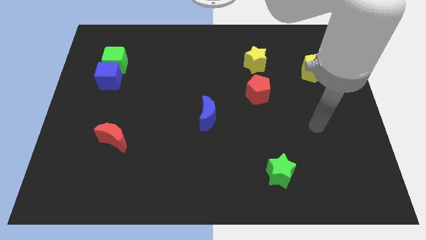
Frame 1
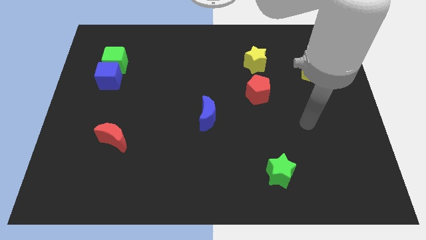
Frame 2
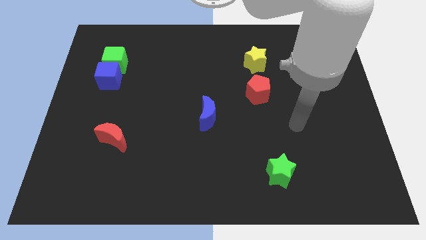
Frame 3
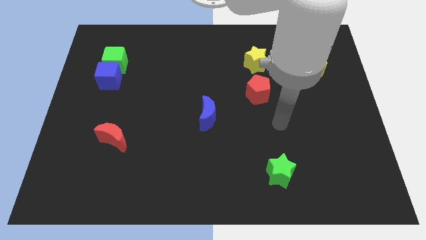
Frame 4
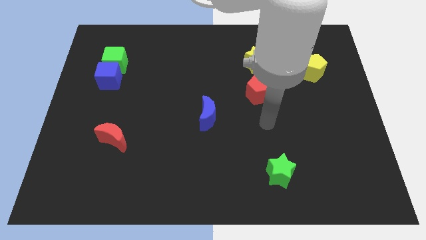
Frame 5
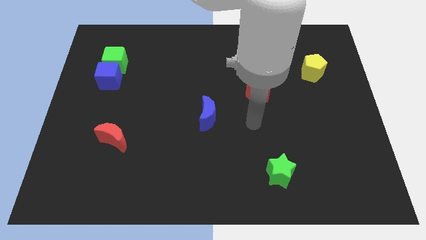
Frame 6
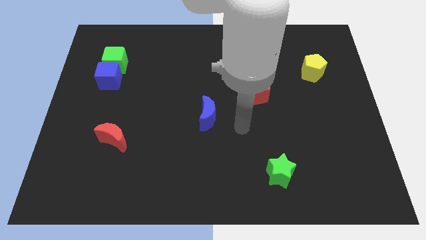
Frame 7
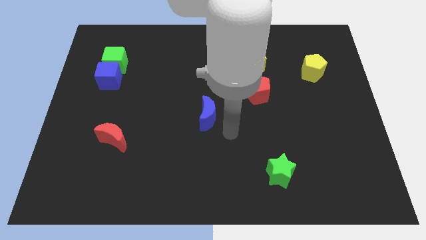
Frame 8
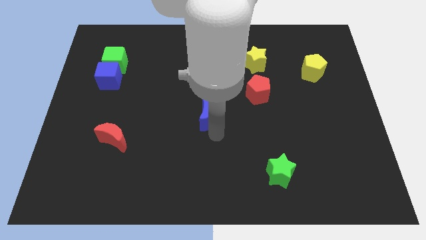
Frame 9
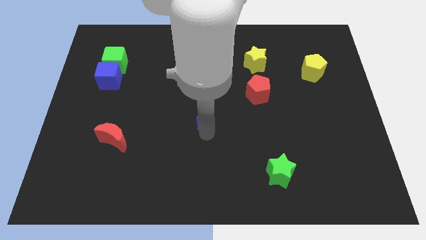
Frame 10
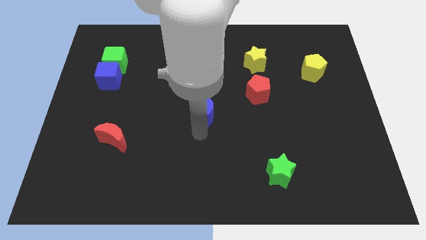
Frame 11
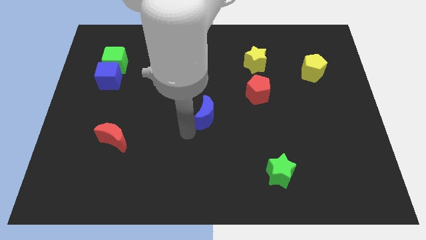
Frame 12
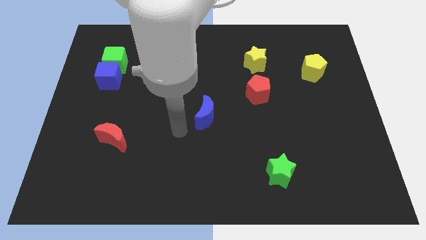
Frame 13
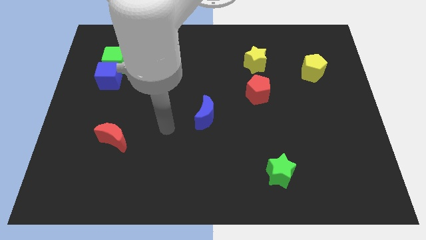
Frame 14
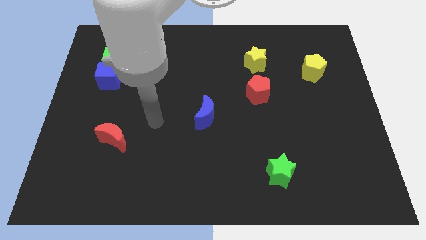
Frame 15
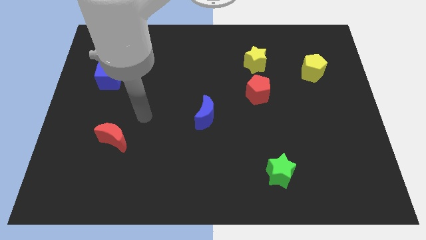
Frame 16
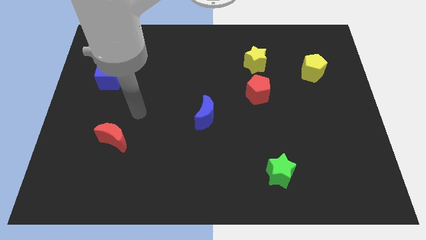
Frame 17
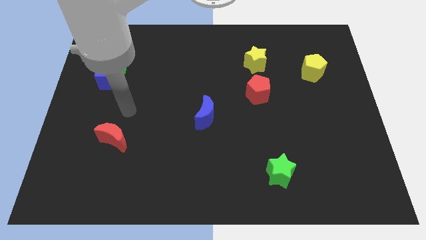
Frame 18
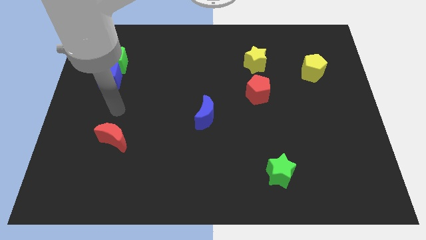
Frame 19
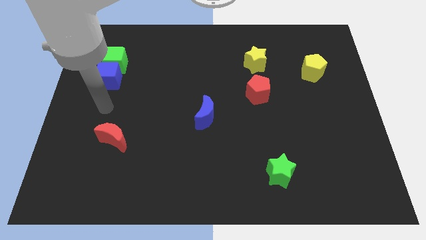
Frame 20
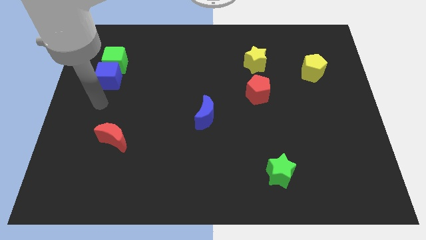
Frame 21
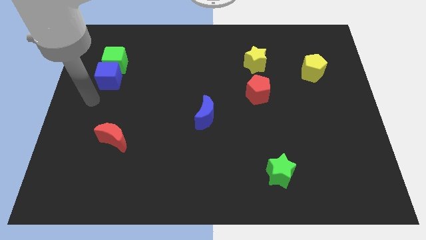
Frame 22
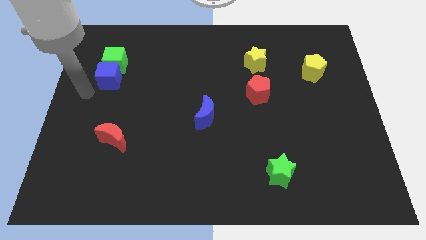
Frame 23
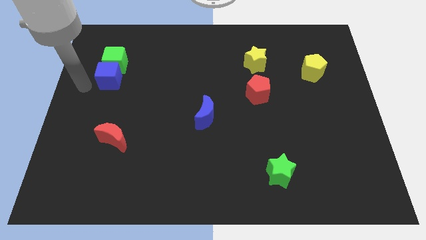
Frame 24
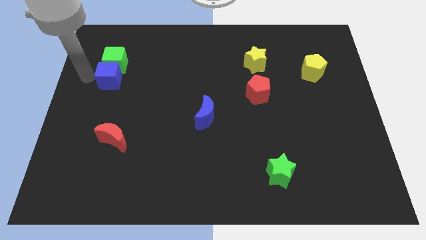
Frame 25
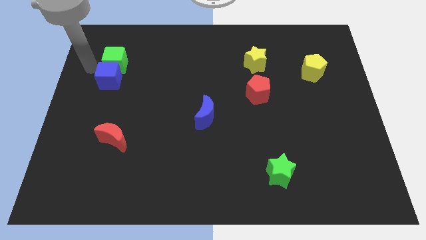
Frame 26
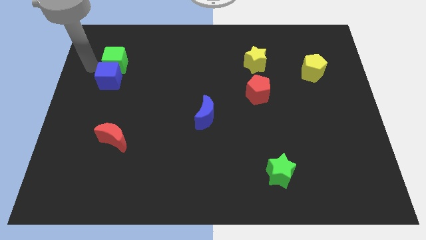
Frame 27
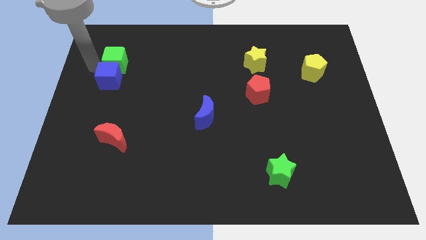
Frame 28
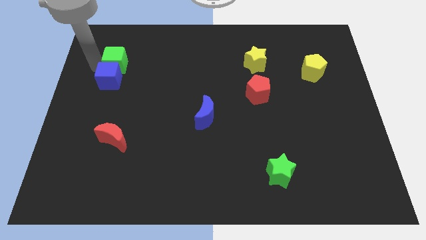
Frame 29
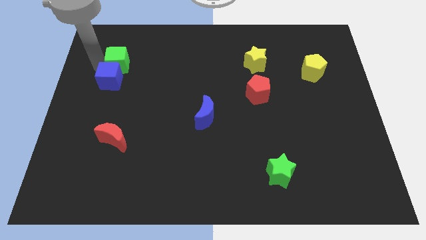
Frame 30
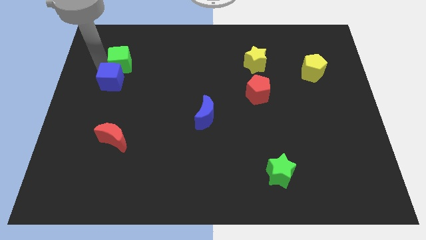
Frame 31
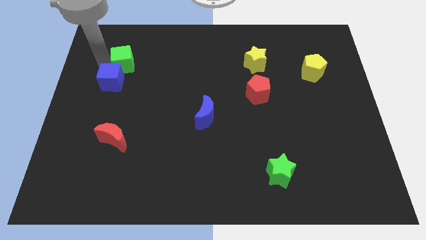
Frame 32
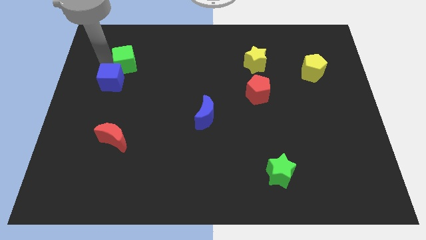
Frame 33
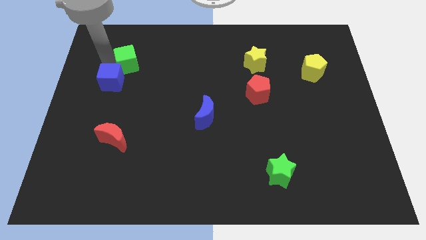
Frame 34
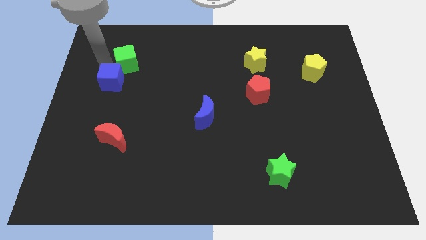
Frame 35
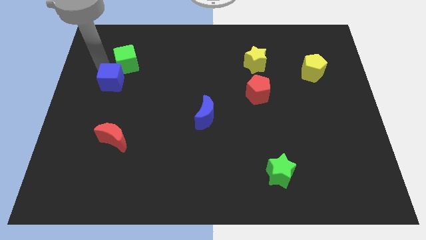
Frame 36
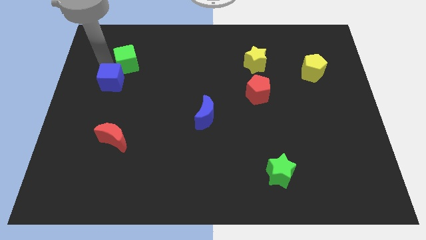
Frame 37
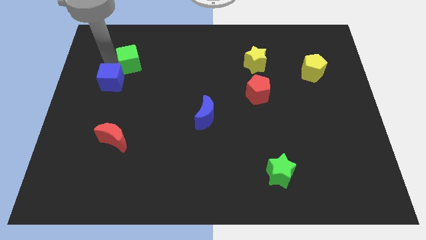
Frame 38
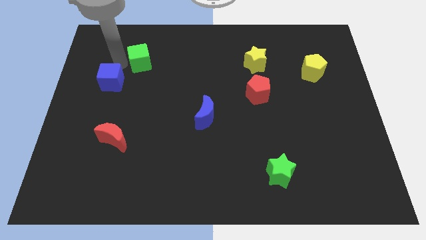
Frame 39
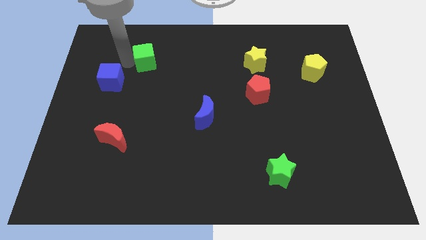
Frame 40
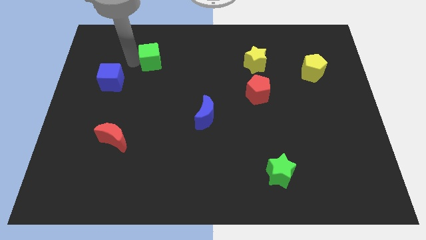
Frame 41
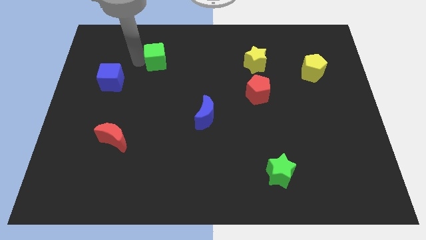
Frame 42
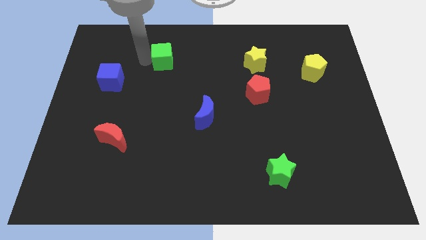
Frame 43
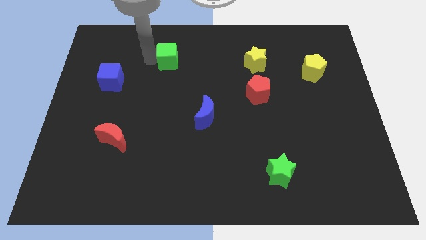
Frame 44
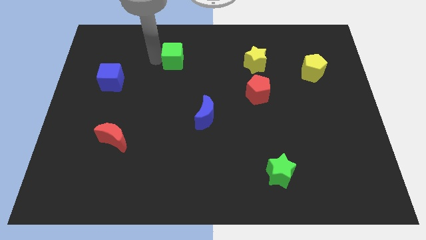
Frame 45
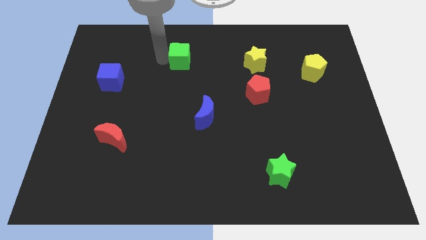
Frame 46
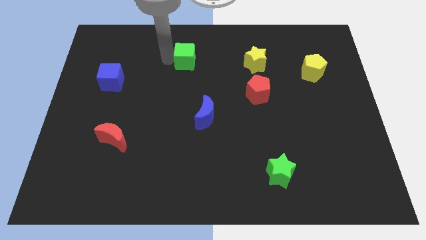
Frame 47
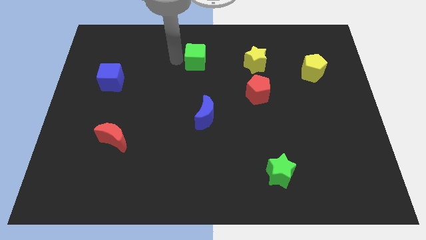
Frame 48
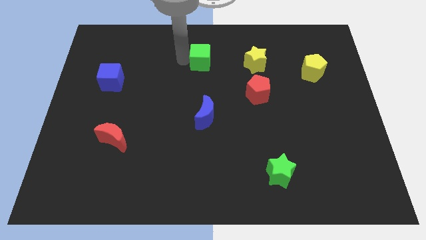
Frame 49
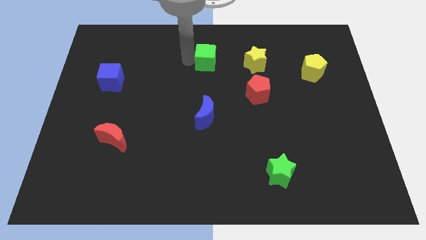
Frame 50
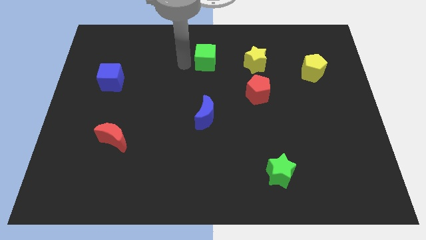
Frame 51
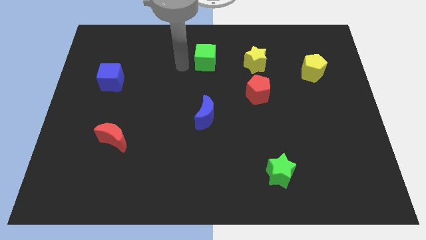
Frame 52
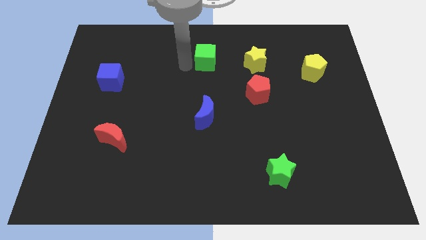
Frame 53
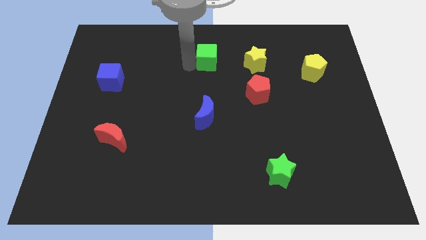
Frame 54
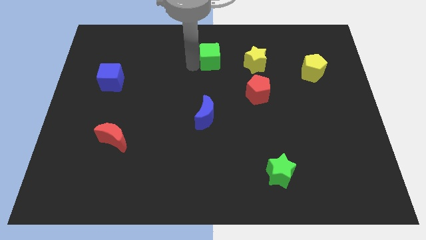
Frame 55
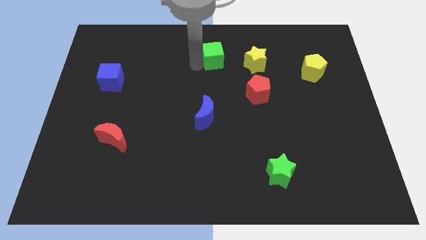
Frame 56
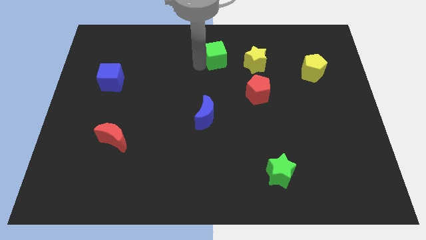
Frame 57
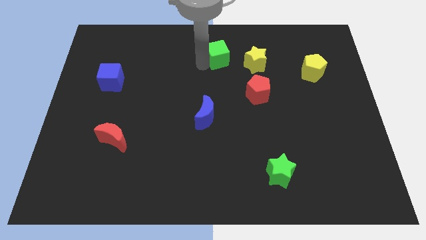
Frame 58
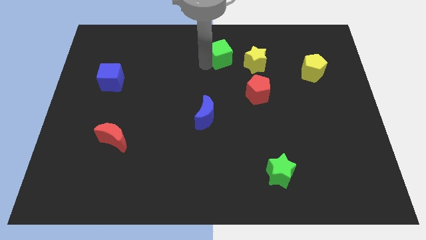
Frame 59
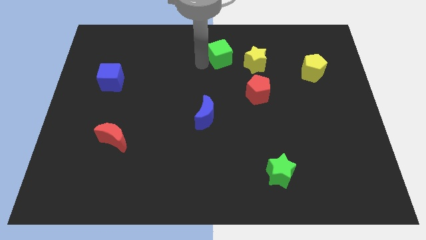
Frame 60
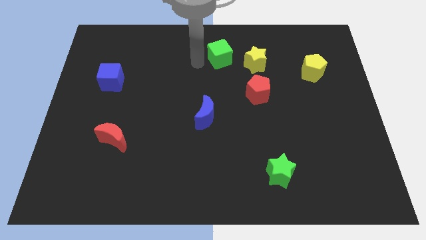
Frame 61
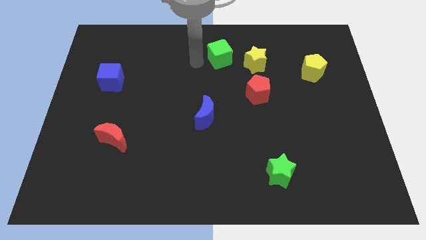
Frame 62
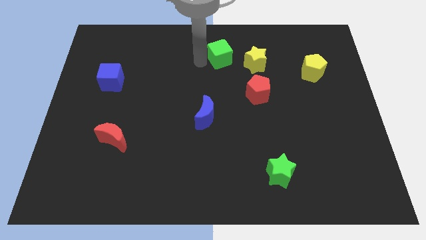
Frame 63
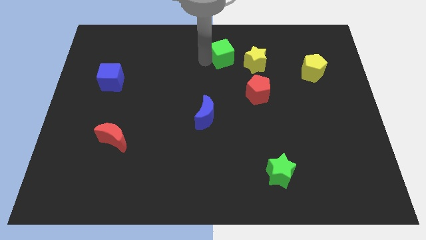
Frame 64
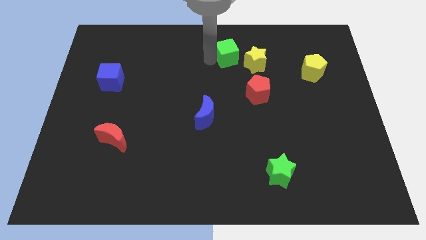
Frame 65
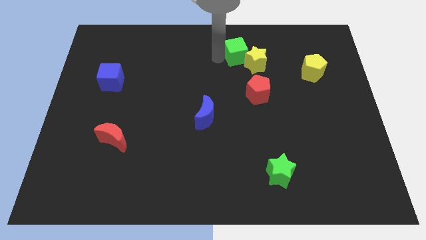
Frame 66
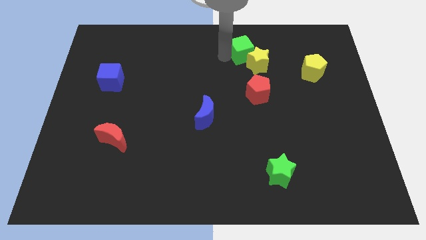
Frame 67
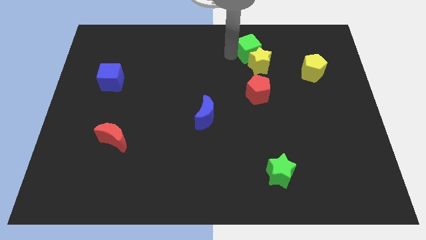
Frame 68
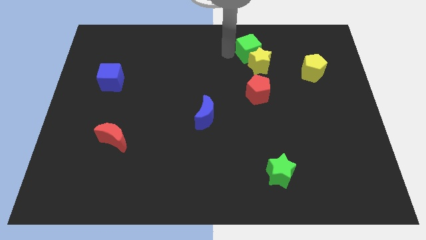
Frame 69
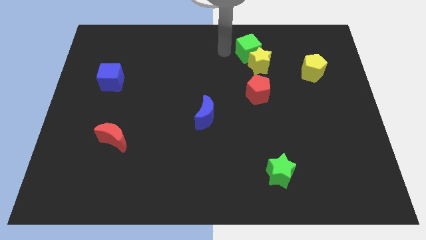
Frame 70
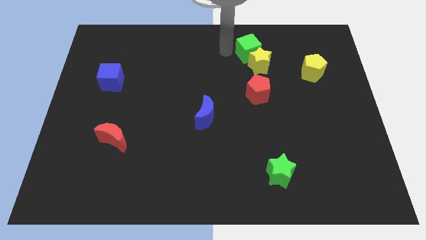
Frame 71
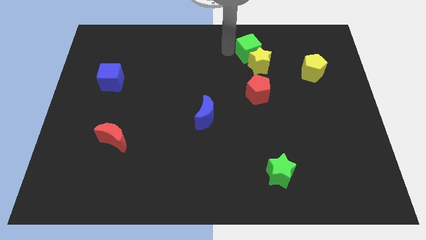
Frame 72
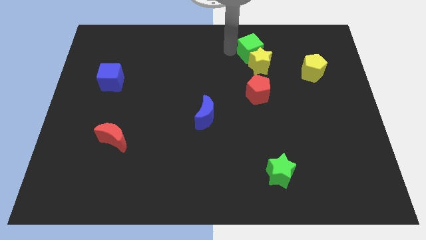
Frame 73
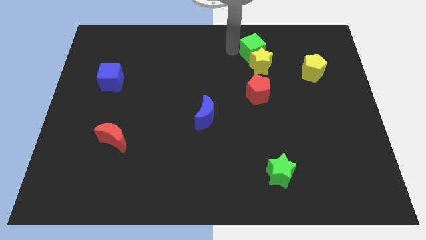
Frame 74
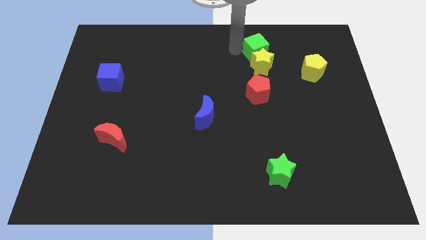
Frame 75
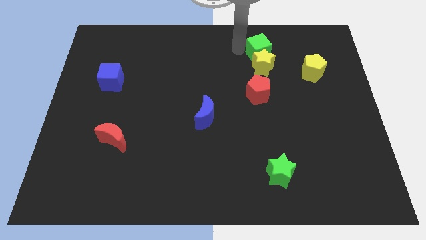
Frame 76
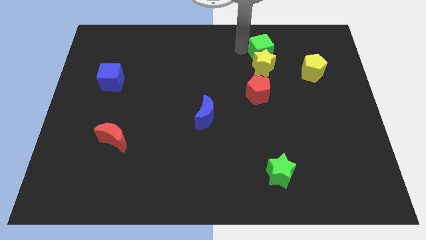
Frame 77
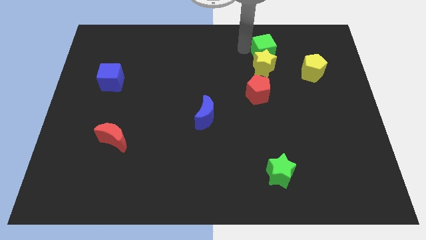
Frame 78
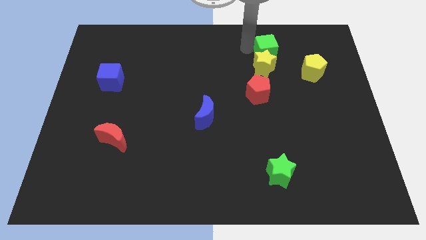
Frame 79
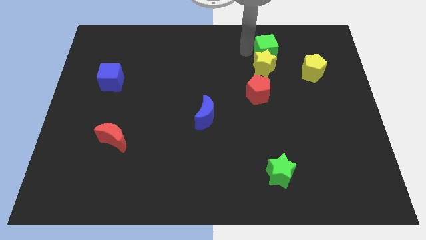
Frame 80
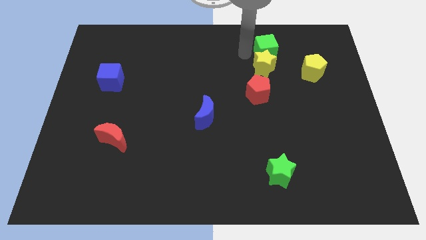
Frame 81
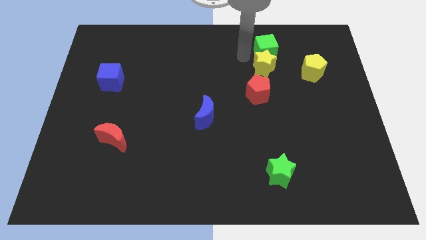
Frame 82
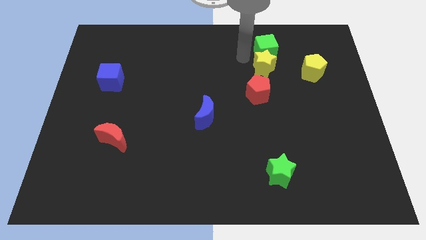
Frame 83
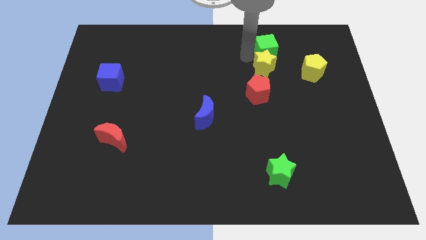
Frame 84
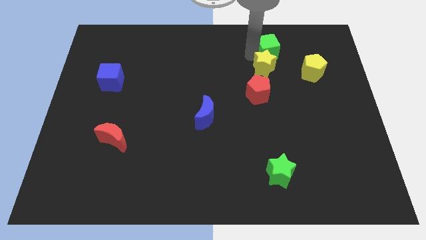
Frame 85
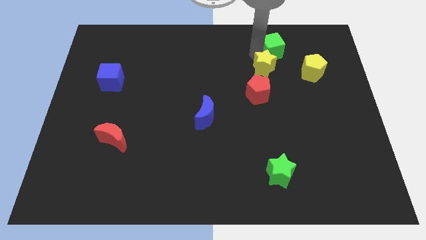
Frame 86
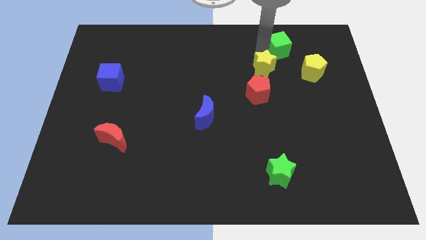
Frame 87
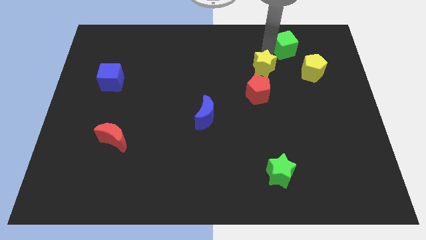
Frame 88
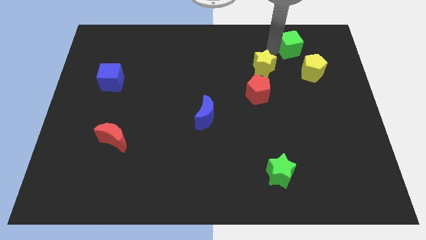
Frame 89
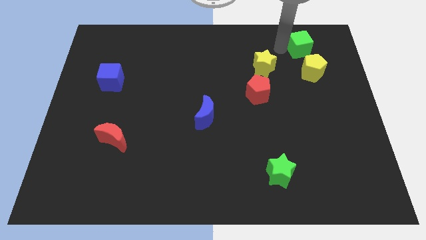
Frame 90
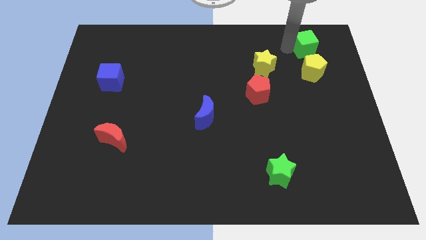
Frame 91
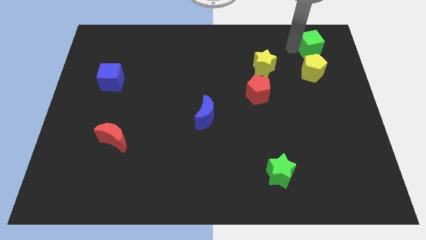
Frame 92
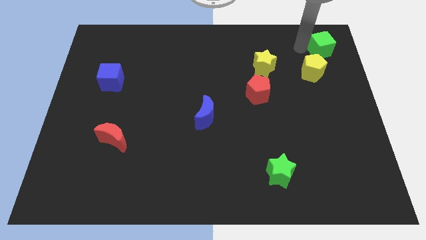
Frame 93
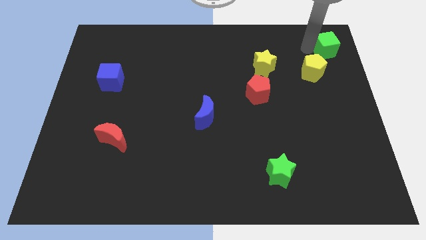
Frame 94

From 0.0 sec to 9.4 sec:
move the green cube to the top right
